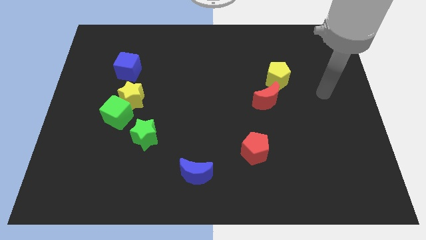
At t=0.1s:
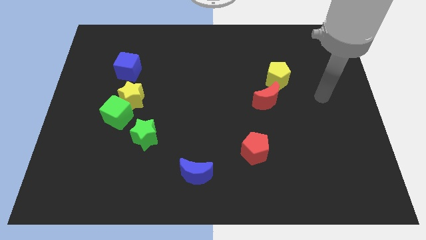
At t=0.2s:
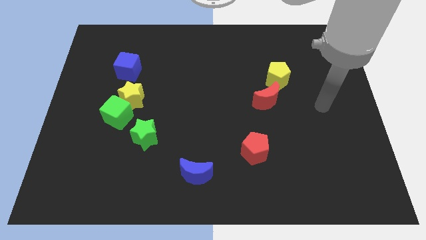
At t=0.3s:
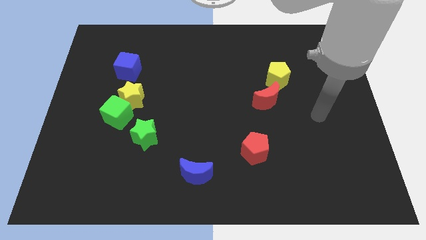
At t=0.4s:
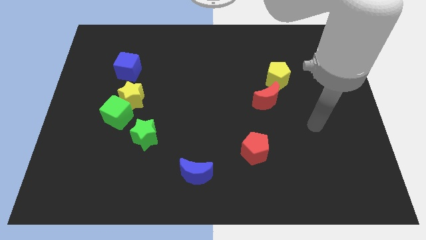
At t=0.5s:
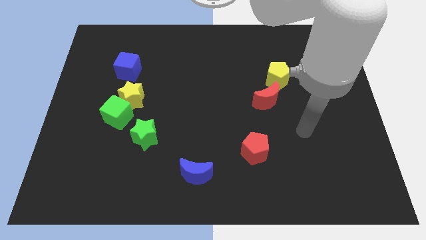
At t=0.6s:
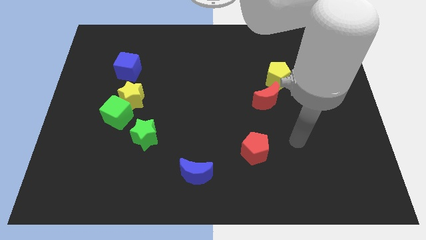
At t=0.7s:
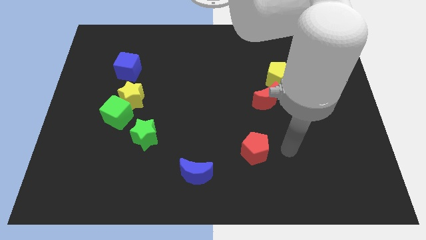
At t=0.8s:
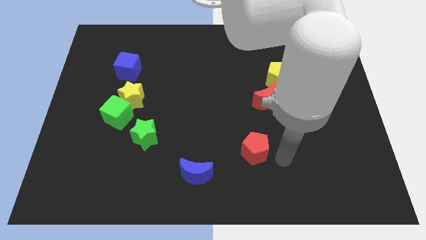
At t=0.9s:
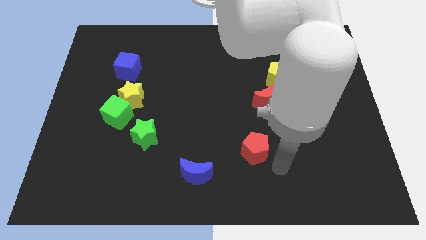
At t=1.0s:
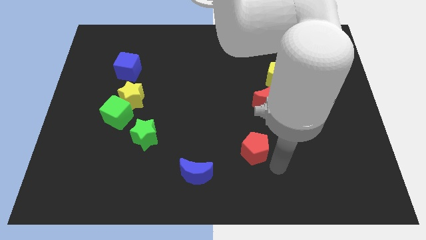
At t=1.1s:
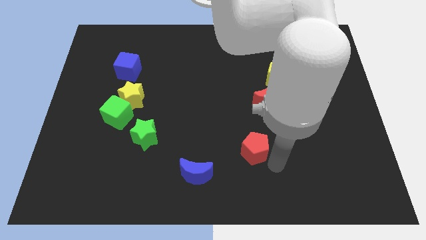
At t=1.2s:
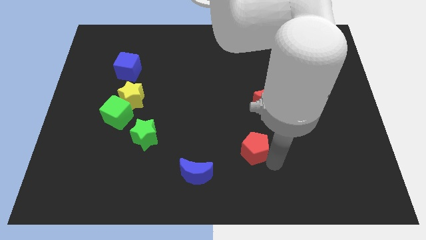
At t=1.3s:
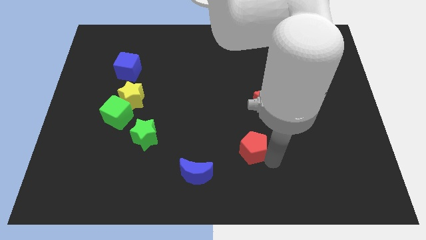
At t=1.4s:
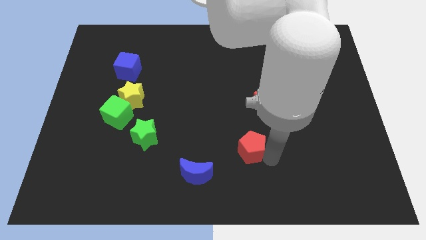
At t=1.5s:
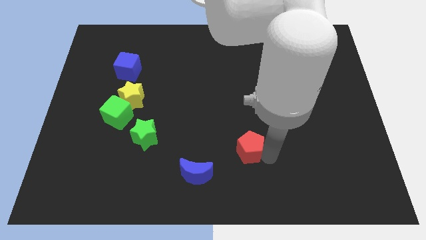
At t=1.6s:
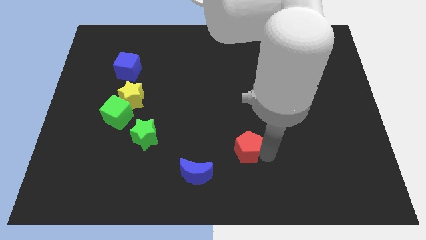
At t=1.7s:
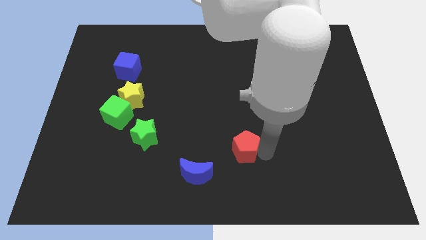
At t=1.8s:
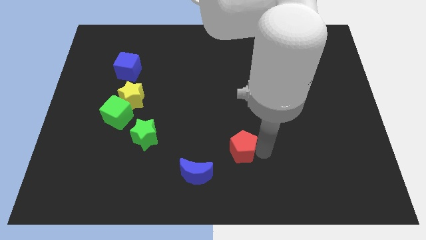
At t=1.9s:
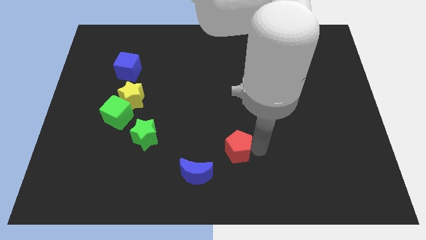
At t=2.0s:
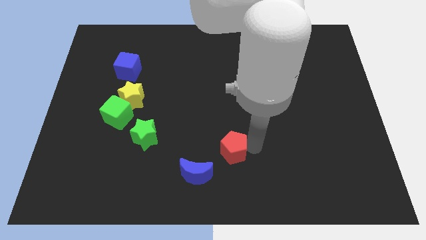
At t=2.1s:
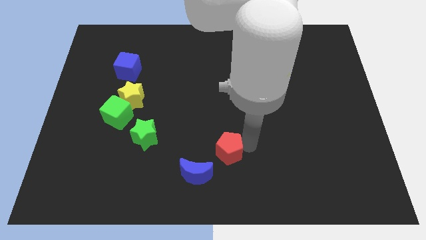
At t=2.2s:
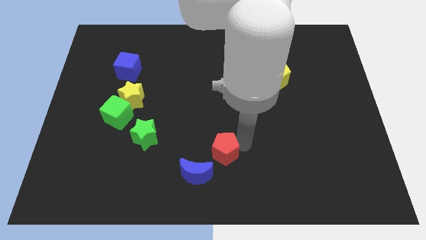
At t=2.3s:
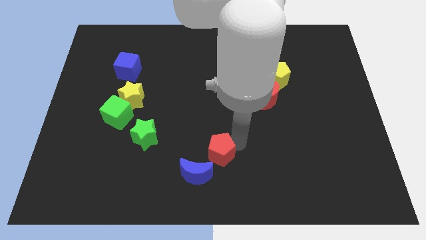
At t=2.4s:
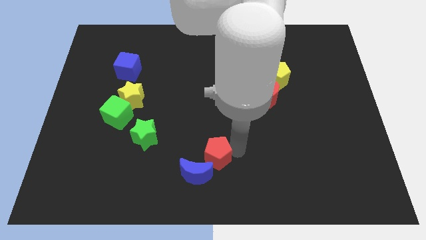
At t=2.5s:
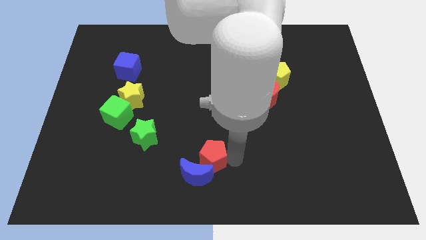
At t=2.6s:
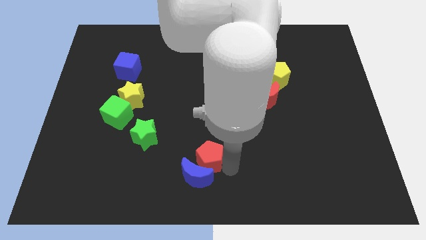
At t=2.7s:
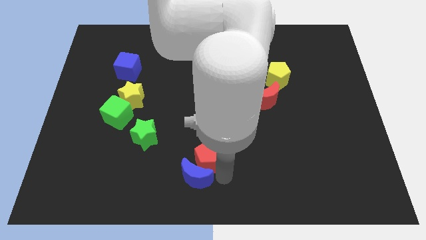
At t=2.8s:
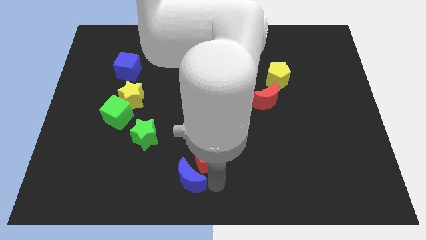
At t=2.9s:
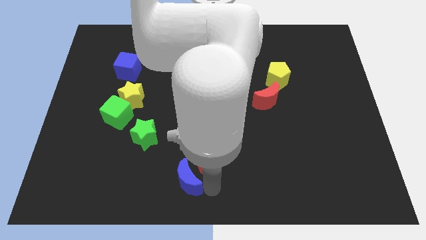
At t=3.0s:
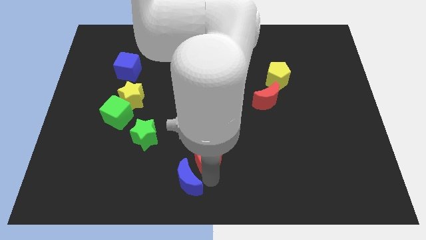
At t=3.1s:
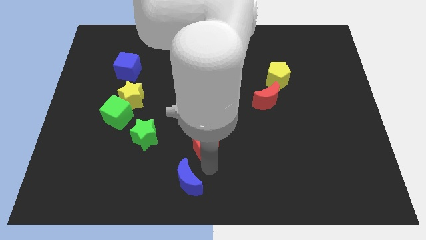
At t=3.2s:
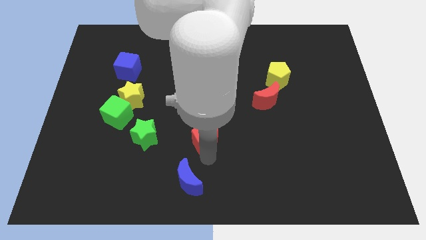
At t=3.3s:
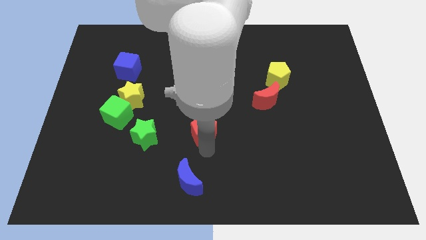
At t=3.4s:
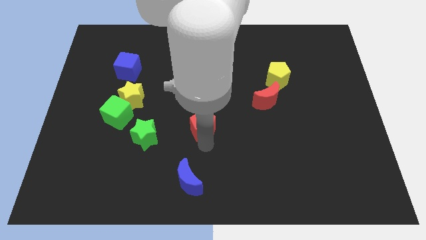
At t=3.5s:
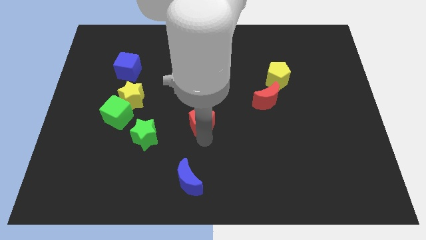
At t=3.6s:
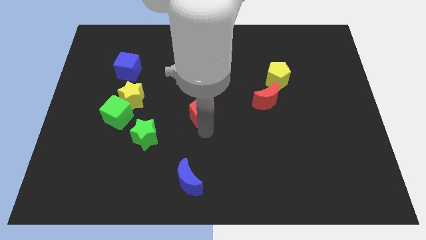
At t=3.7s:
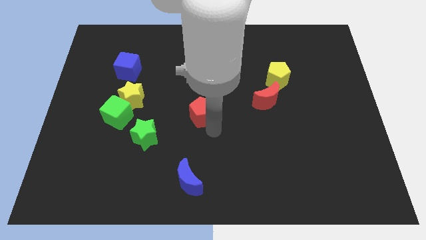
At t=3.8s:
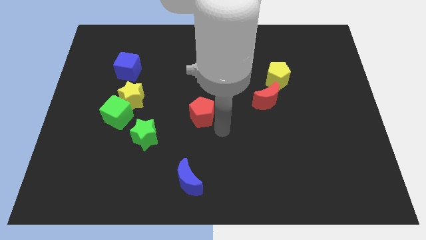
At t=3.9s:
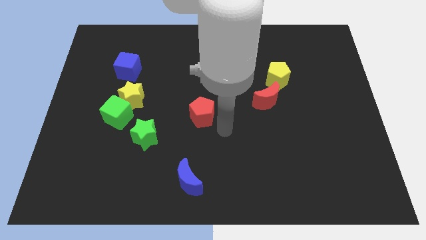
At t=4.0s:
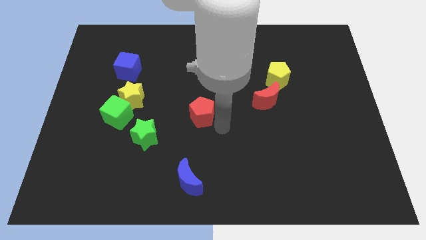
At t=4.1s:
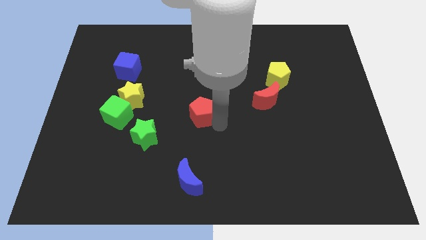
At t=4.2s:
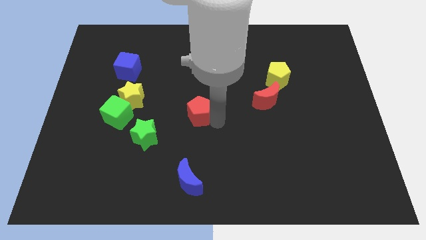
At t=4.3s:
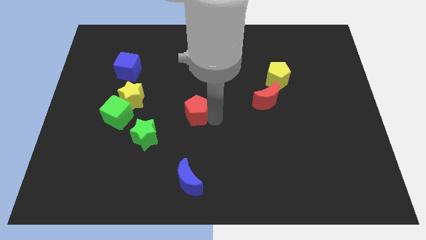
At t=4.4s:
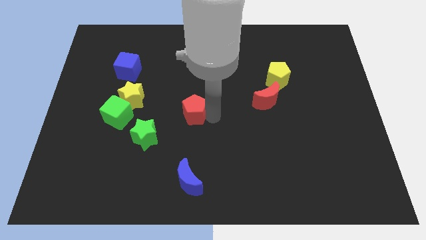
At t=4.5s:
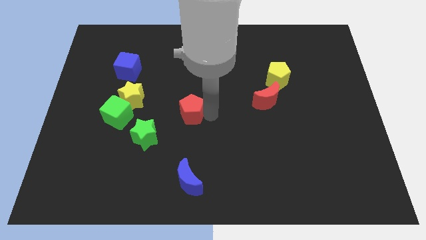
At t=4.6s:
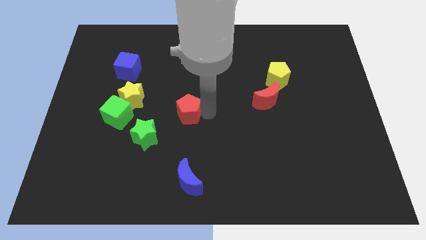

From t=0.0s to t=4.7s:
put the red pentagon right of the yellow star

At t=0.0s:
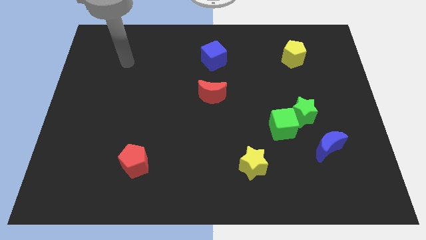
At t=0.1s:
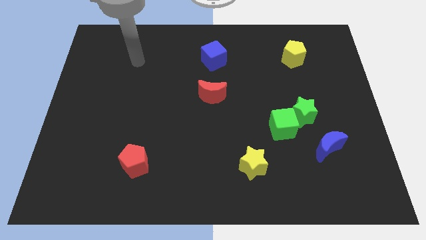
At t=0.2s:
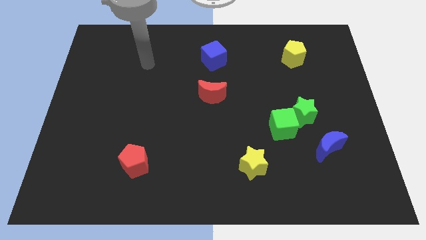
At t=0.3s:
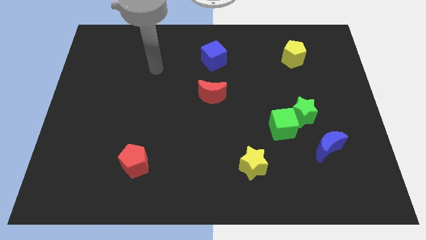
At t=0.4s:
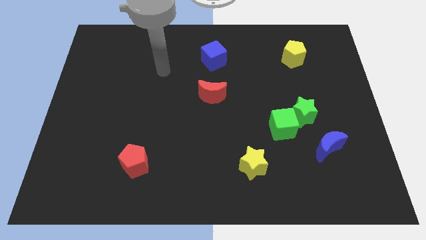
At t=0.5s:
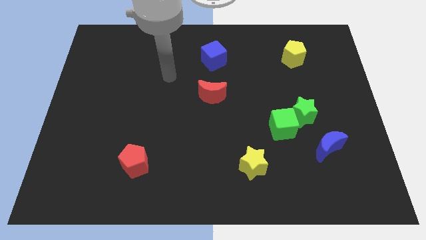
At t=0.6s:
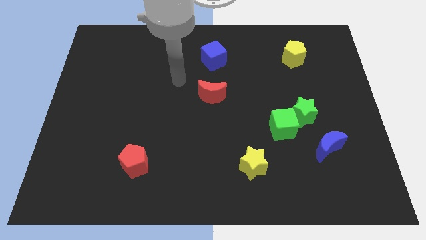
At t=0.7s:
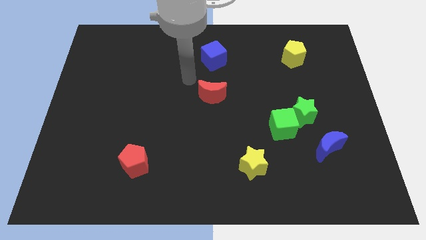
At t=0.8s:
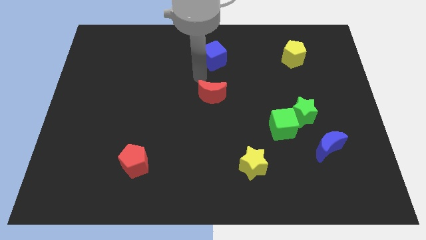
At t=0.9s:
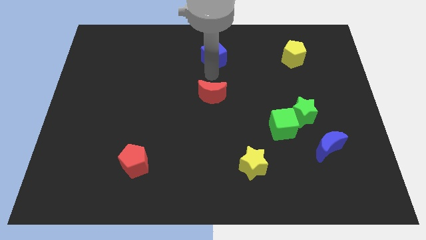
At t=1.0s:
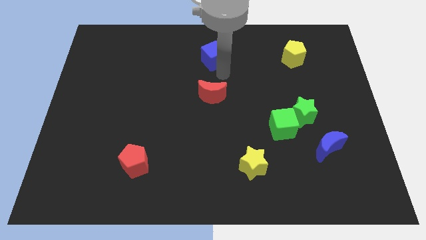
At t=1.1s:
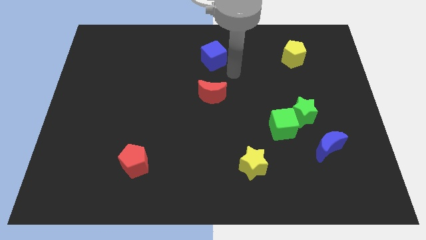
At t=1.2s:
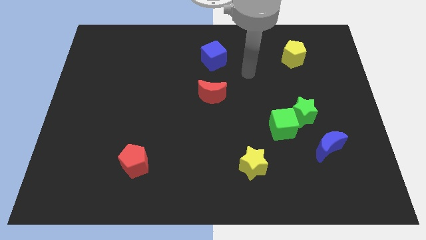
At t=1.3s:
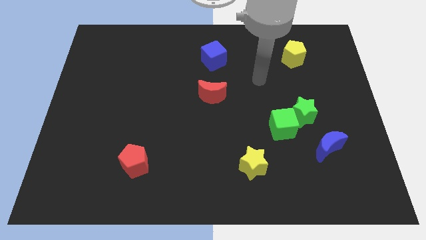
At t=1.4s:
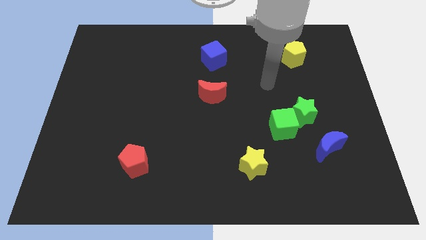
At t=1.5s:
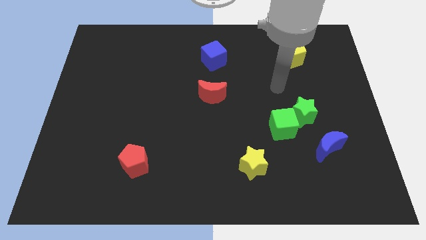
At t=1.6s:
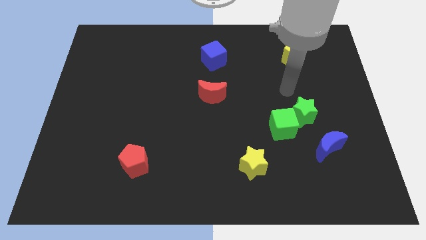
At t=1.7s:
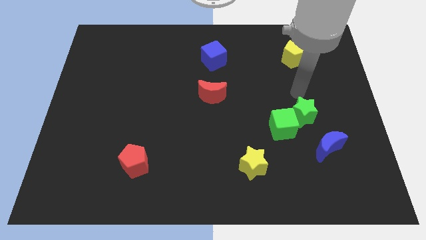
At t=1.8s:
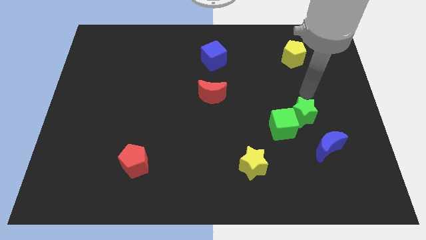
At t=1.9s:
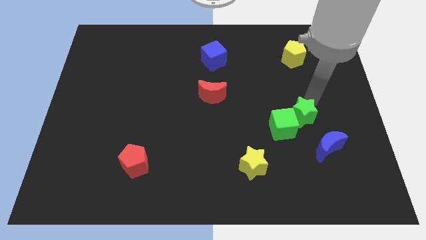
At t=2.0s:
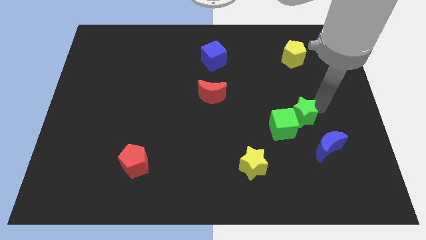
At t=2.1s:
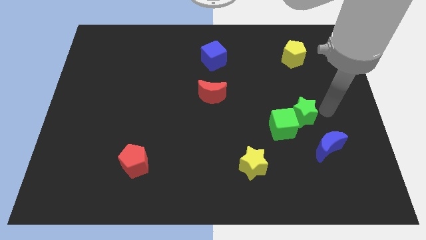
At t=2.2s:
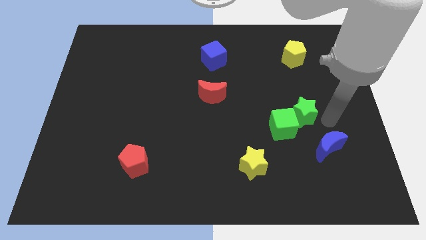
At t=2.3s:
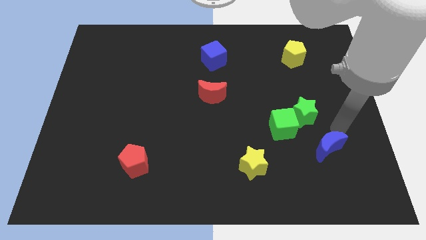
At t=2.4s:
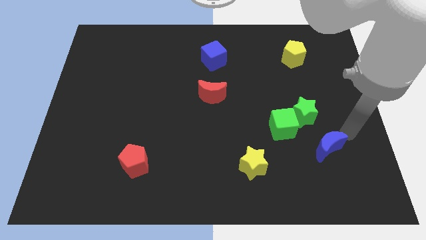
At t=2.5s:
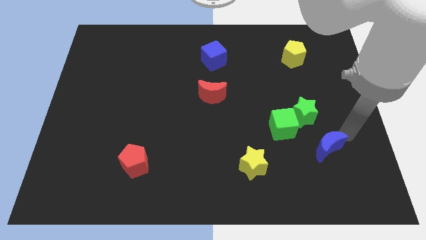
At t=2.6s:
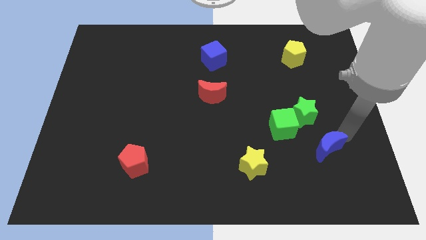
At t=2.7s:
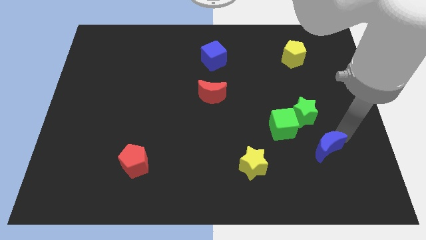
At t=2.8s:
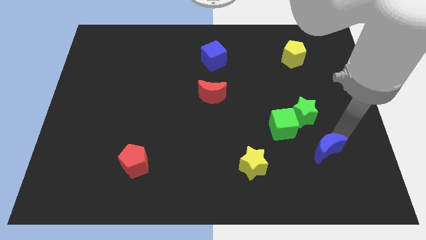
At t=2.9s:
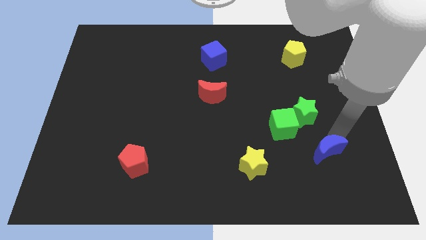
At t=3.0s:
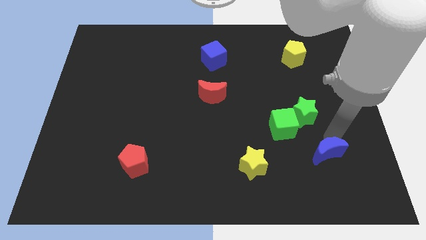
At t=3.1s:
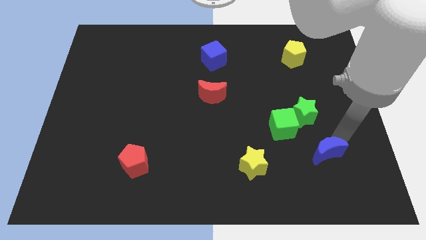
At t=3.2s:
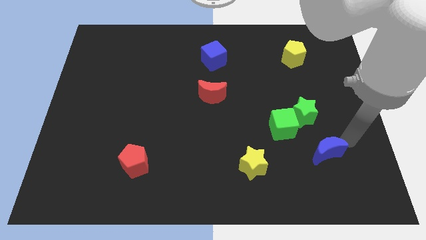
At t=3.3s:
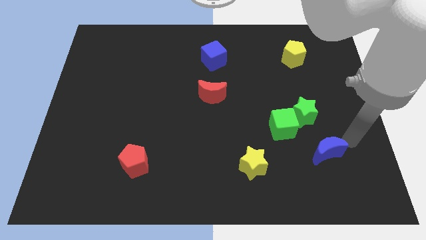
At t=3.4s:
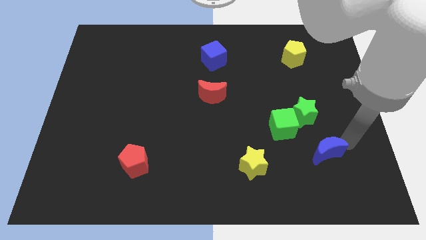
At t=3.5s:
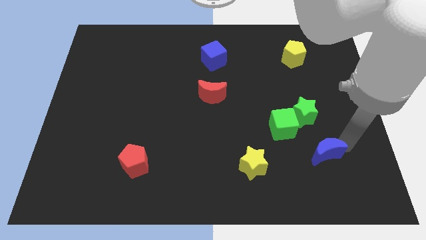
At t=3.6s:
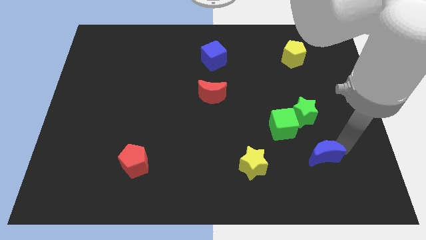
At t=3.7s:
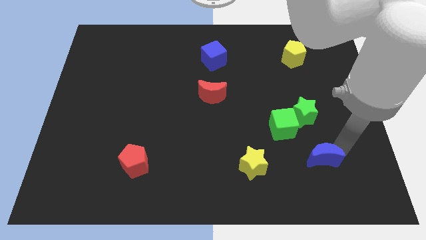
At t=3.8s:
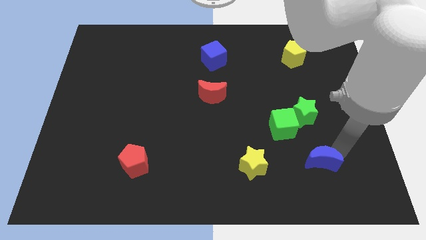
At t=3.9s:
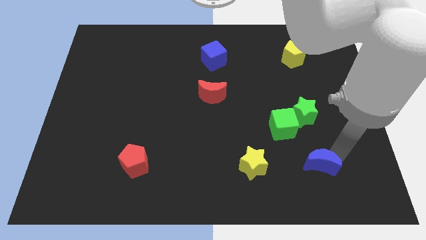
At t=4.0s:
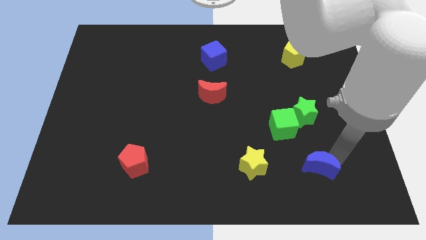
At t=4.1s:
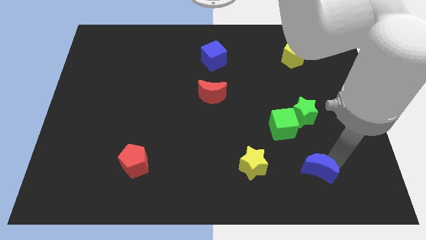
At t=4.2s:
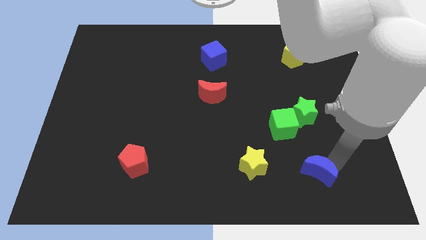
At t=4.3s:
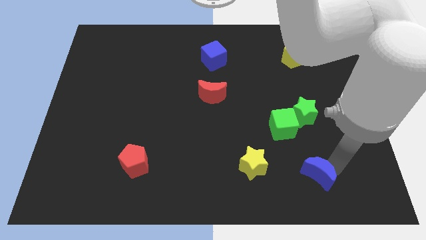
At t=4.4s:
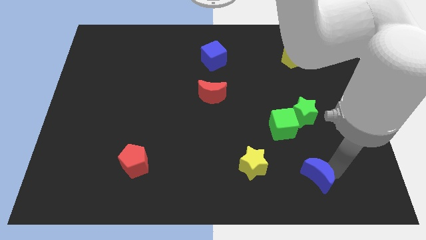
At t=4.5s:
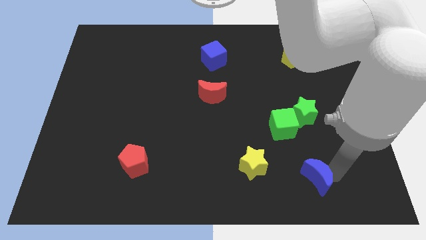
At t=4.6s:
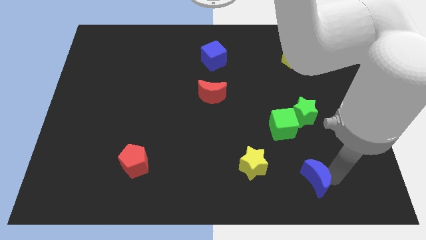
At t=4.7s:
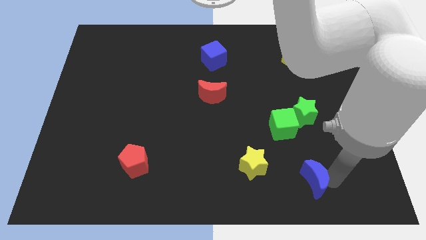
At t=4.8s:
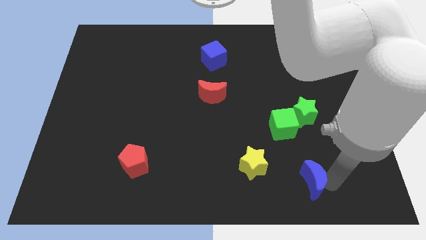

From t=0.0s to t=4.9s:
put the blue moon to the bottom side of the green cube
